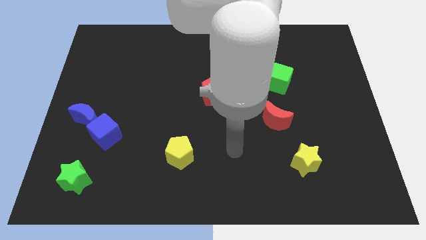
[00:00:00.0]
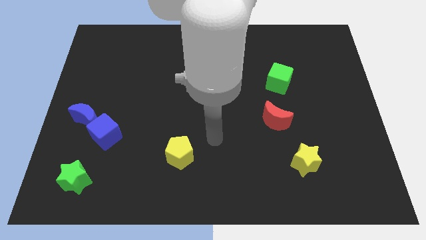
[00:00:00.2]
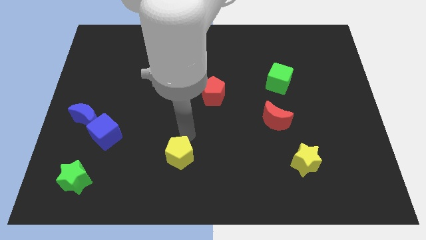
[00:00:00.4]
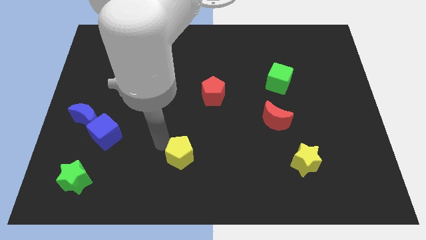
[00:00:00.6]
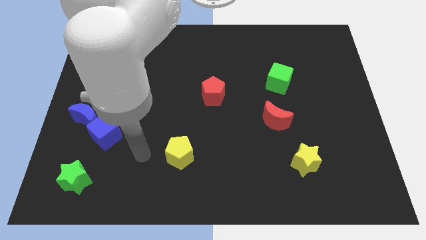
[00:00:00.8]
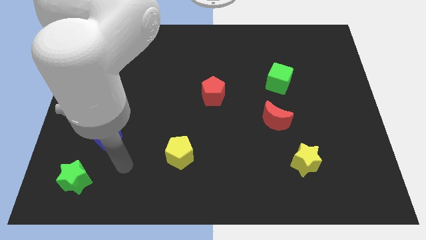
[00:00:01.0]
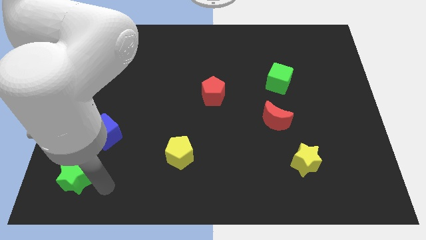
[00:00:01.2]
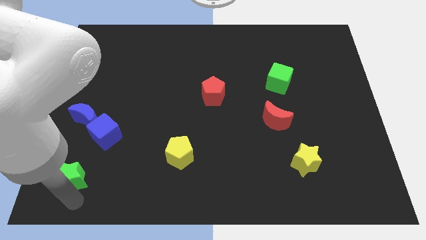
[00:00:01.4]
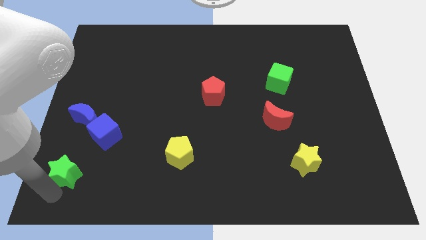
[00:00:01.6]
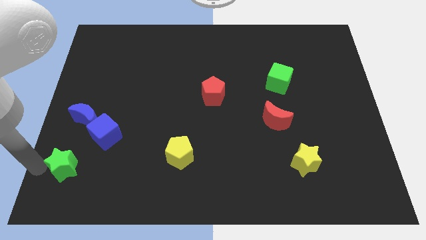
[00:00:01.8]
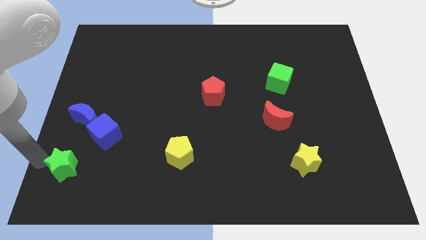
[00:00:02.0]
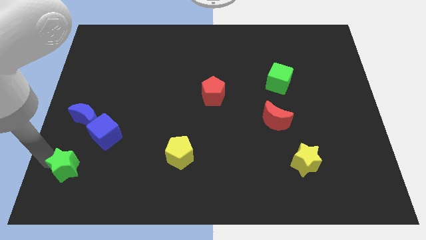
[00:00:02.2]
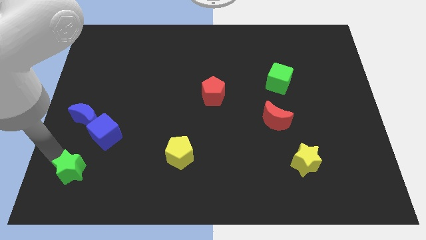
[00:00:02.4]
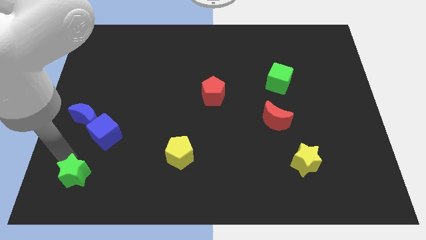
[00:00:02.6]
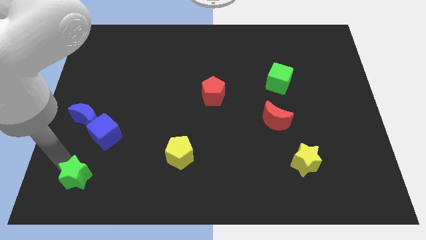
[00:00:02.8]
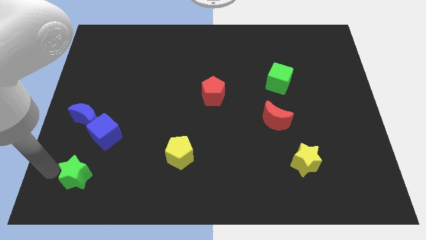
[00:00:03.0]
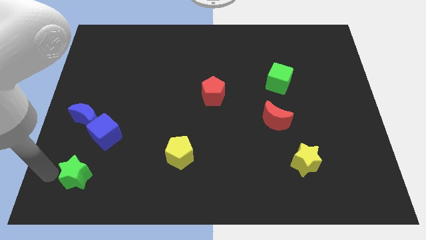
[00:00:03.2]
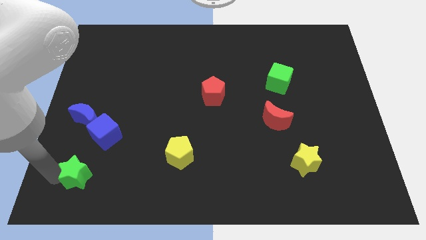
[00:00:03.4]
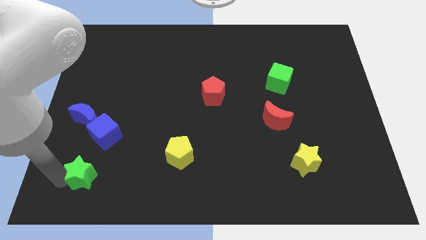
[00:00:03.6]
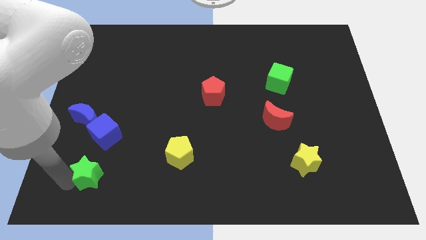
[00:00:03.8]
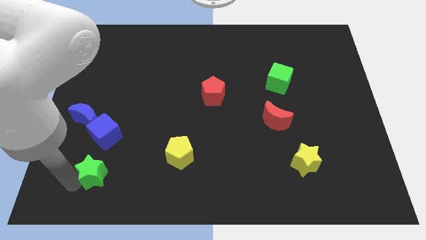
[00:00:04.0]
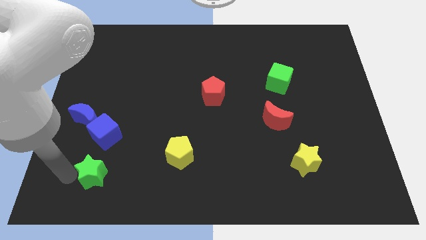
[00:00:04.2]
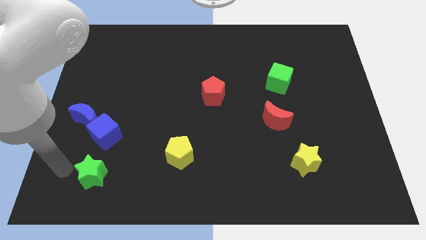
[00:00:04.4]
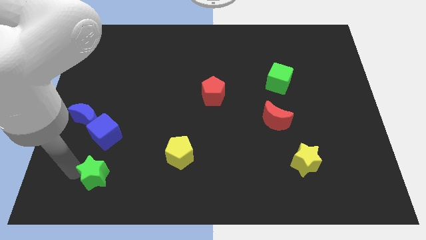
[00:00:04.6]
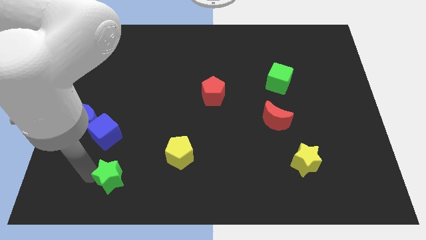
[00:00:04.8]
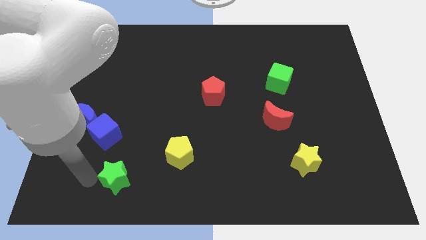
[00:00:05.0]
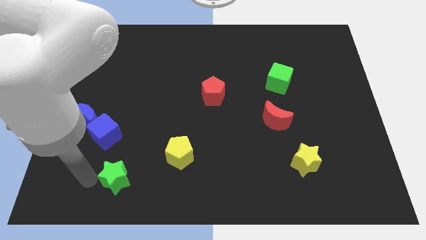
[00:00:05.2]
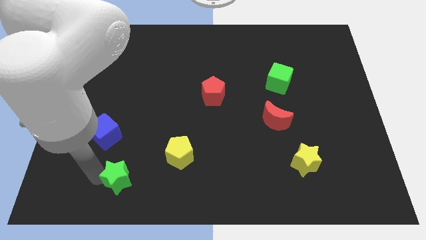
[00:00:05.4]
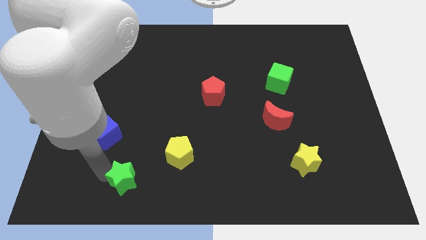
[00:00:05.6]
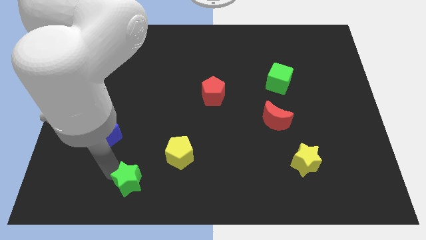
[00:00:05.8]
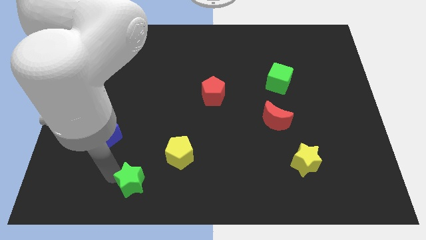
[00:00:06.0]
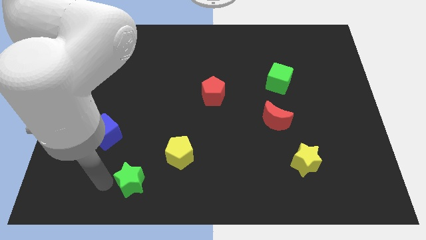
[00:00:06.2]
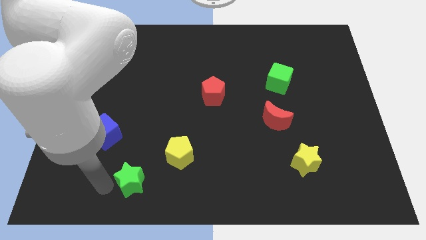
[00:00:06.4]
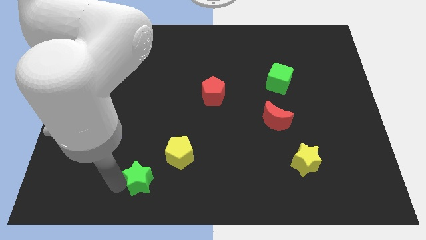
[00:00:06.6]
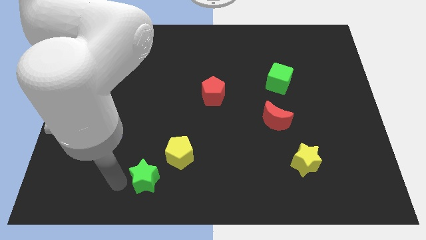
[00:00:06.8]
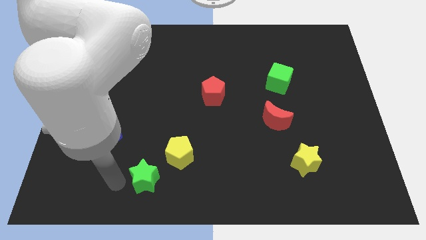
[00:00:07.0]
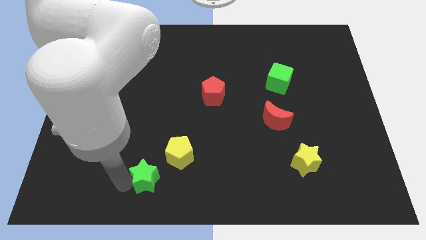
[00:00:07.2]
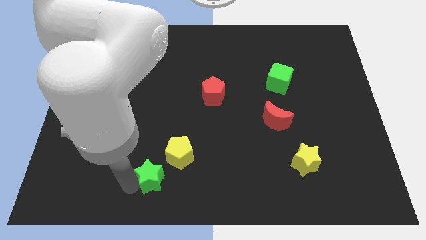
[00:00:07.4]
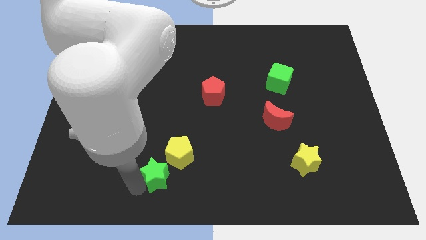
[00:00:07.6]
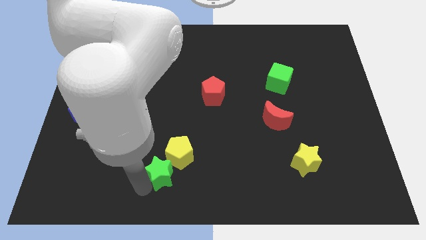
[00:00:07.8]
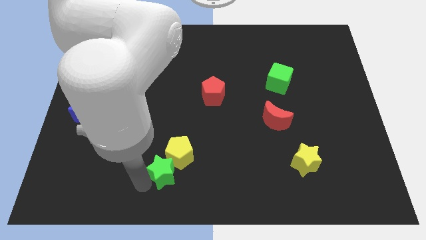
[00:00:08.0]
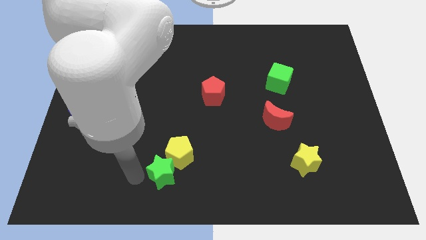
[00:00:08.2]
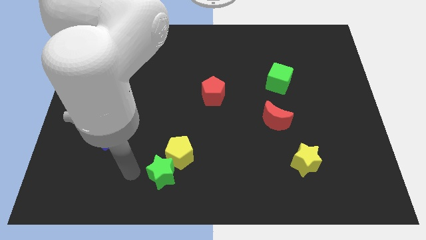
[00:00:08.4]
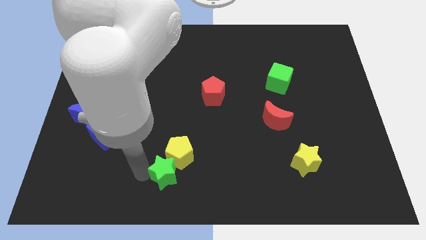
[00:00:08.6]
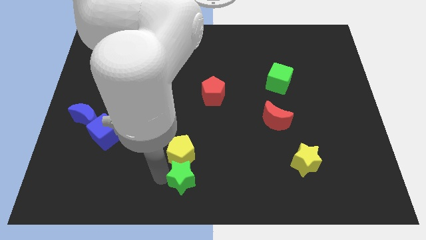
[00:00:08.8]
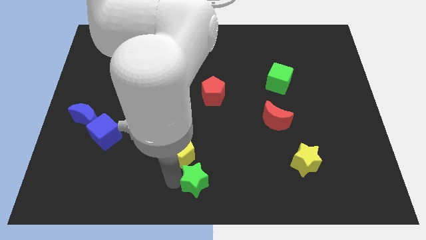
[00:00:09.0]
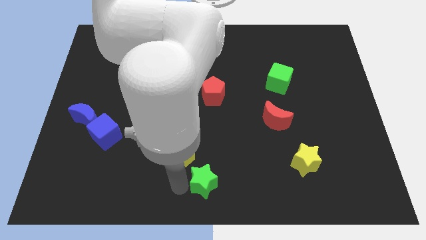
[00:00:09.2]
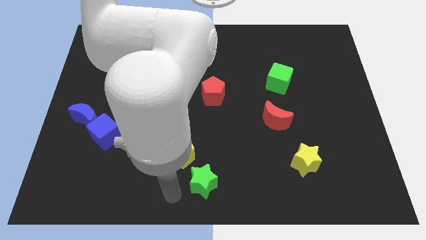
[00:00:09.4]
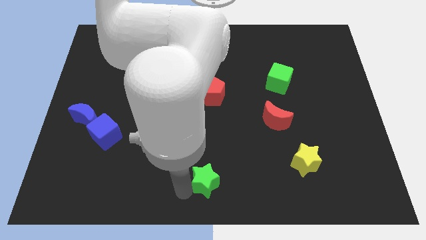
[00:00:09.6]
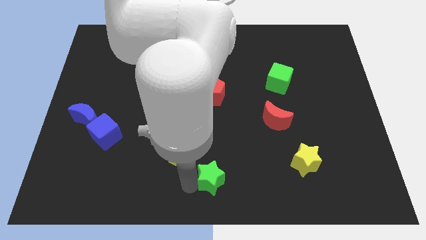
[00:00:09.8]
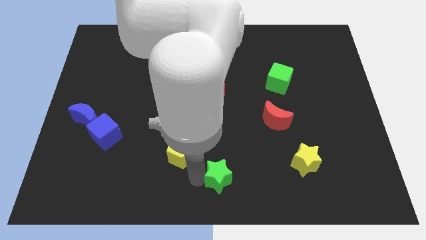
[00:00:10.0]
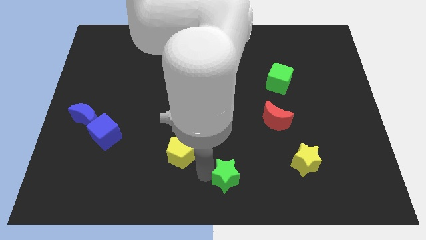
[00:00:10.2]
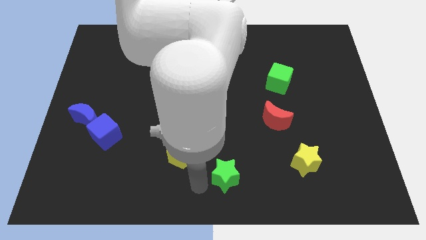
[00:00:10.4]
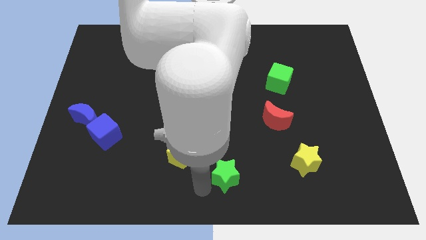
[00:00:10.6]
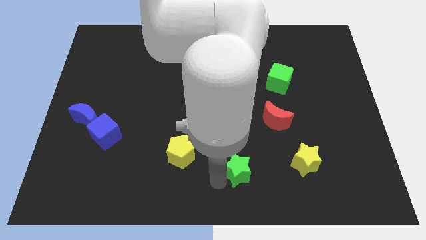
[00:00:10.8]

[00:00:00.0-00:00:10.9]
push the green star to the left side of the yellow star

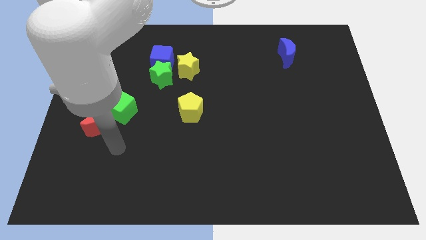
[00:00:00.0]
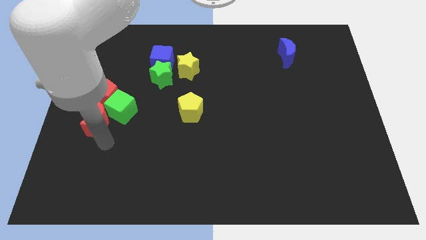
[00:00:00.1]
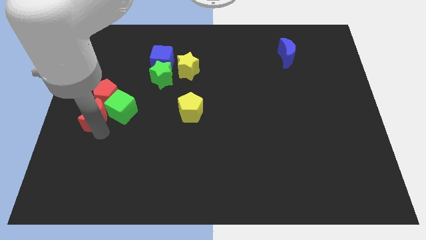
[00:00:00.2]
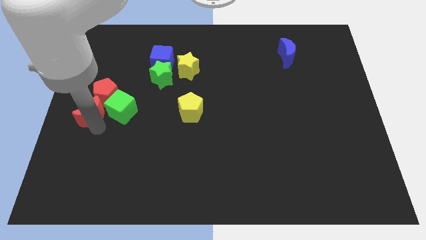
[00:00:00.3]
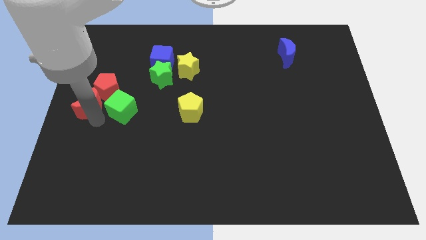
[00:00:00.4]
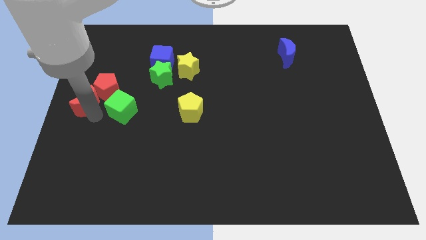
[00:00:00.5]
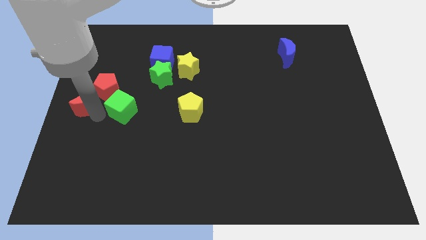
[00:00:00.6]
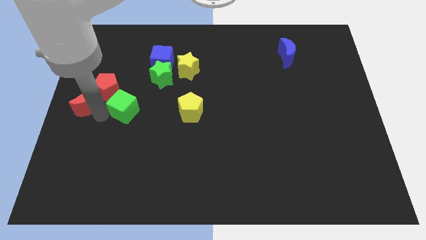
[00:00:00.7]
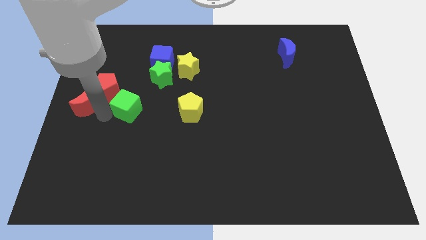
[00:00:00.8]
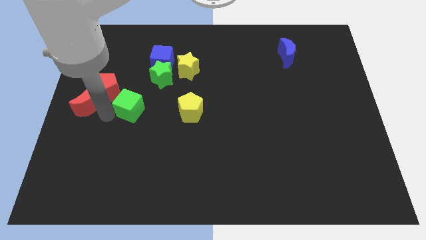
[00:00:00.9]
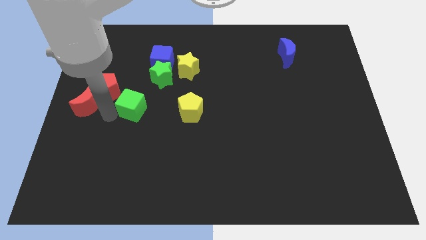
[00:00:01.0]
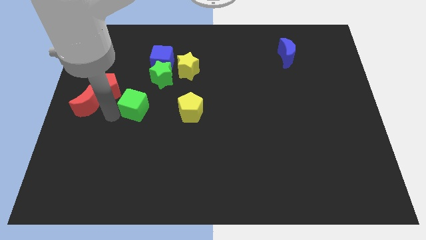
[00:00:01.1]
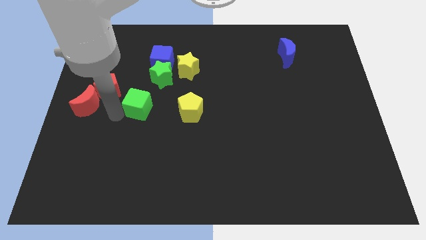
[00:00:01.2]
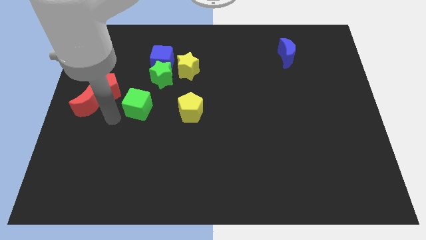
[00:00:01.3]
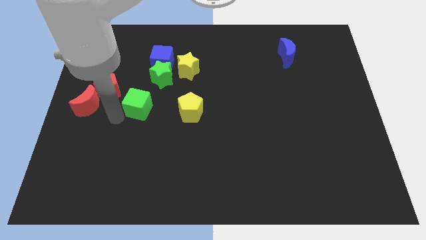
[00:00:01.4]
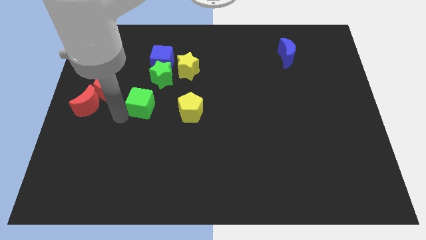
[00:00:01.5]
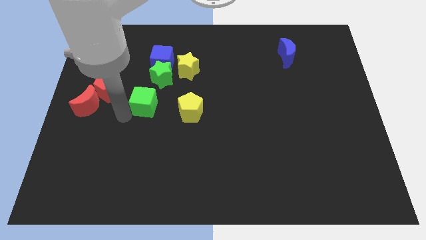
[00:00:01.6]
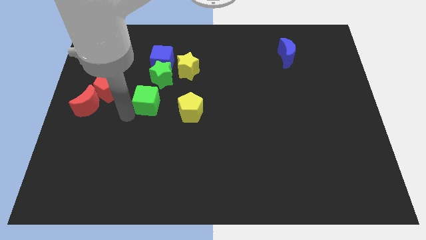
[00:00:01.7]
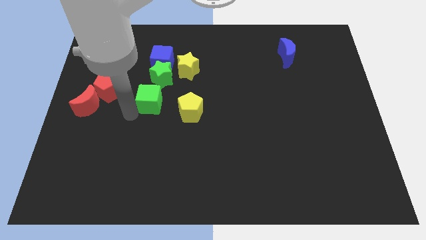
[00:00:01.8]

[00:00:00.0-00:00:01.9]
push the green cube to the top left side of the yellow pentagon
